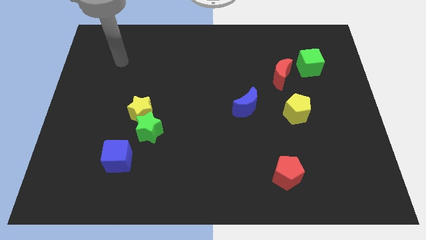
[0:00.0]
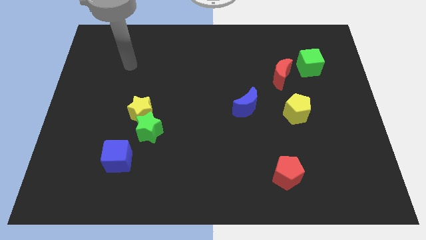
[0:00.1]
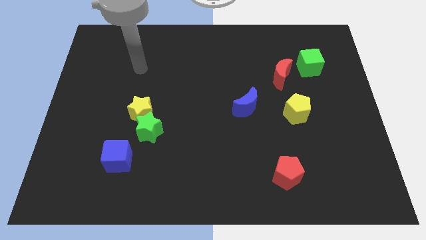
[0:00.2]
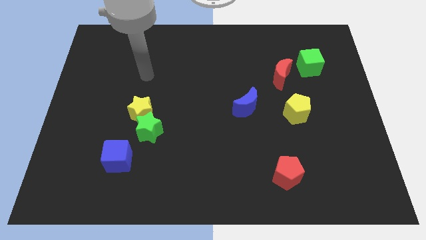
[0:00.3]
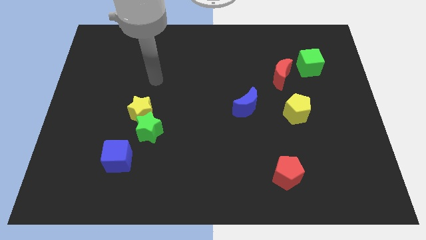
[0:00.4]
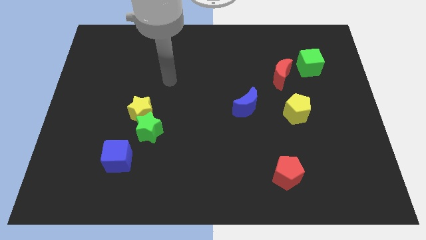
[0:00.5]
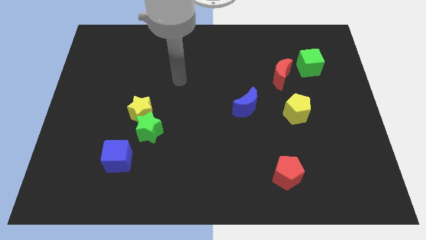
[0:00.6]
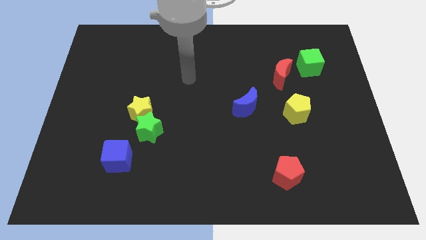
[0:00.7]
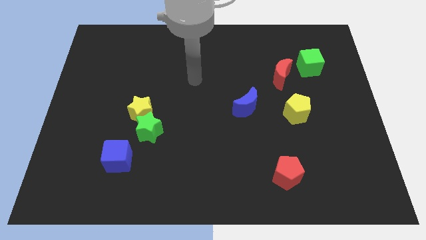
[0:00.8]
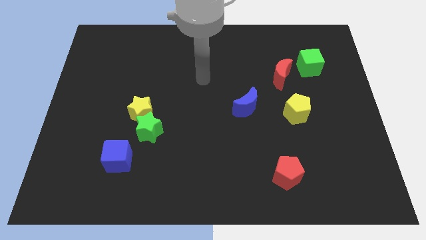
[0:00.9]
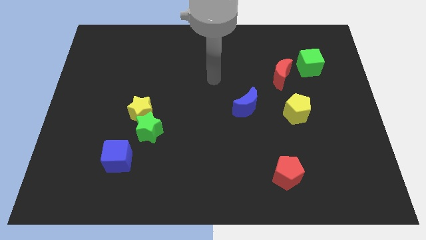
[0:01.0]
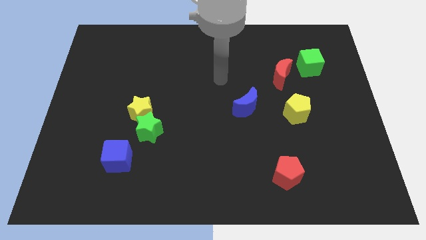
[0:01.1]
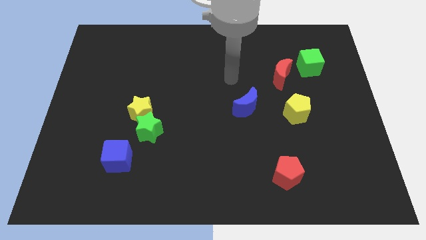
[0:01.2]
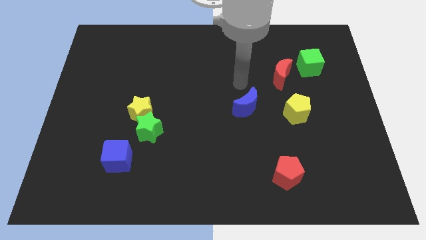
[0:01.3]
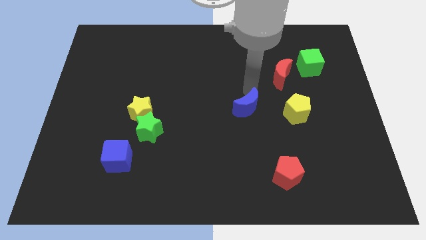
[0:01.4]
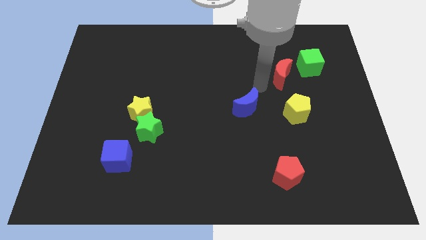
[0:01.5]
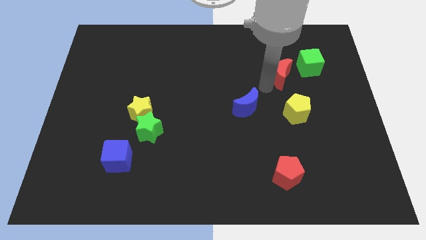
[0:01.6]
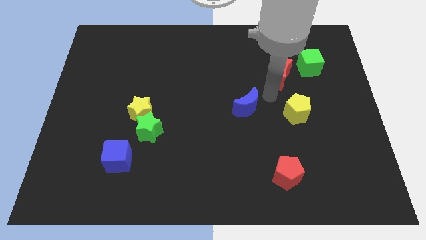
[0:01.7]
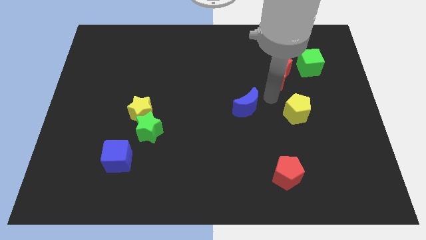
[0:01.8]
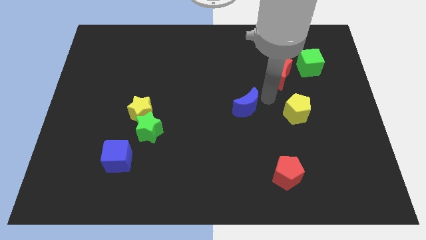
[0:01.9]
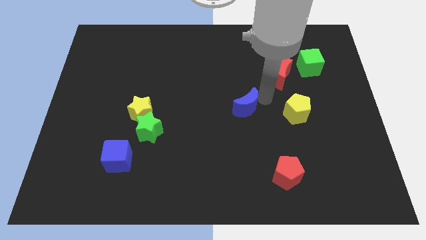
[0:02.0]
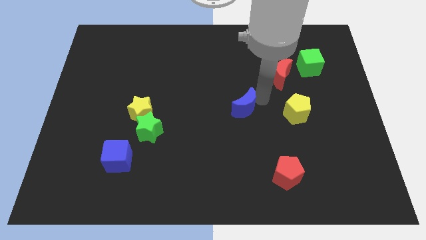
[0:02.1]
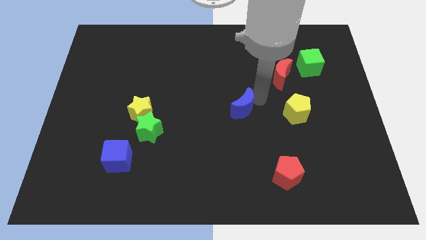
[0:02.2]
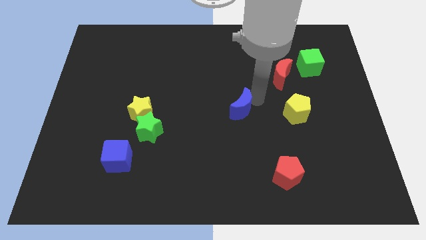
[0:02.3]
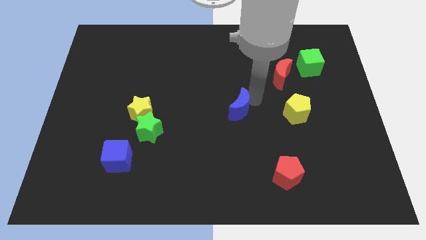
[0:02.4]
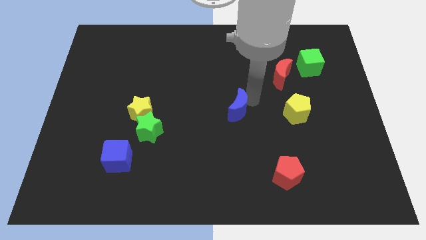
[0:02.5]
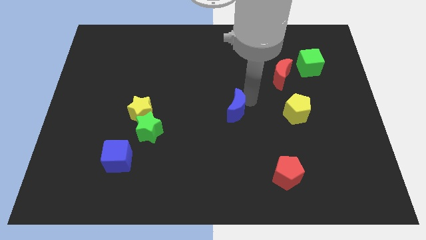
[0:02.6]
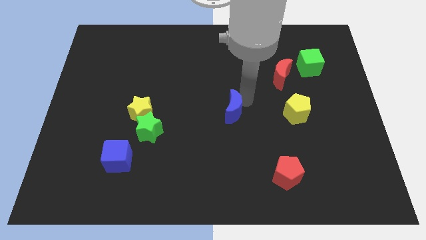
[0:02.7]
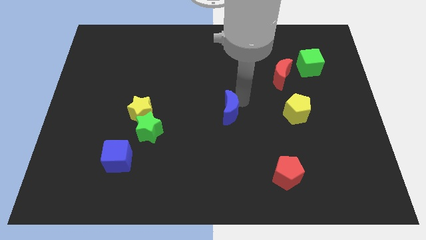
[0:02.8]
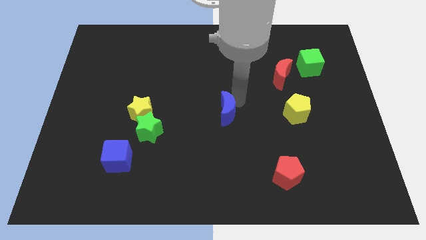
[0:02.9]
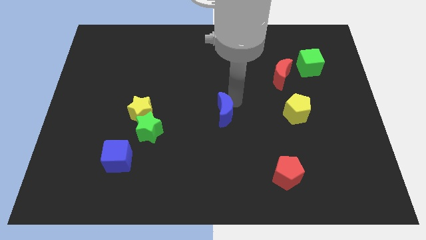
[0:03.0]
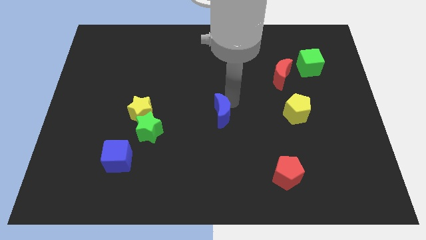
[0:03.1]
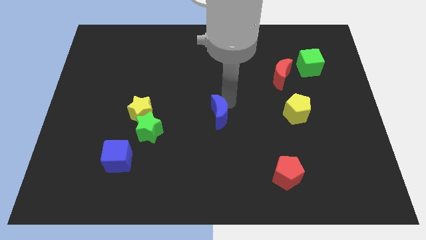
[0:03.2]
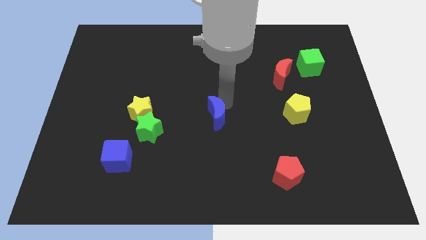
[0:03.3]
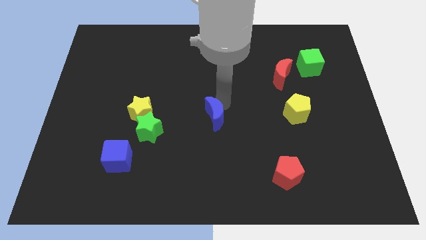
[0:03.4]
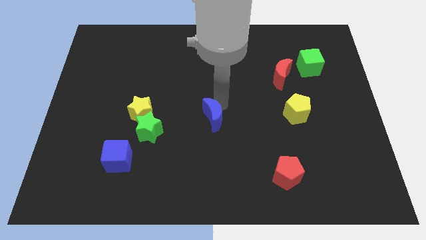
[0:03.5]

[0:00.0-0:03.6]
slightly move the blue moon down and then to the left

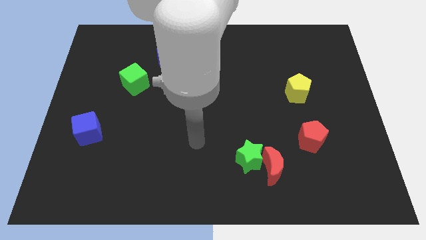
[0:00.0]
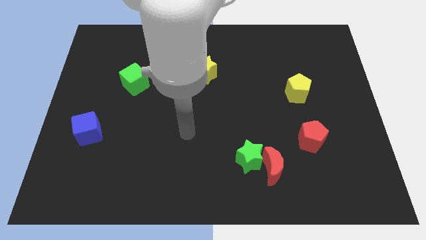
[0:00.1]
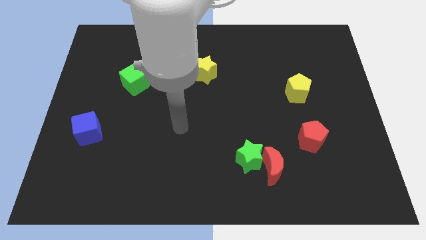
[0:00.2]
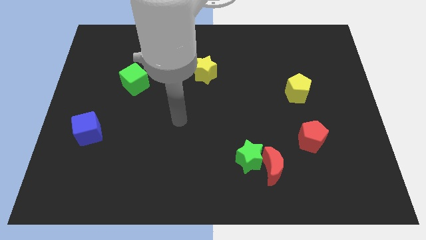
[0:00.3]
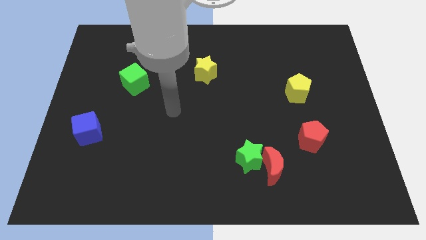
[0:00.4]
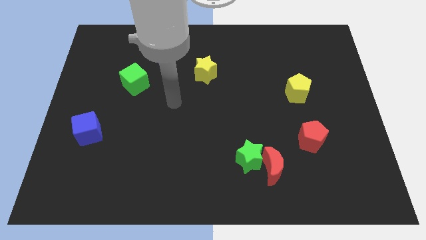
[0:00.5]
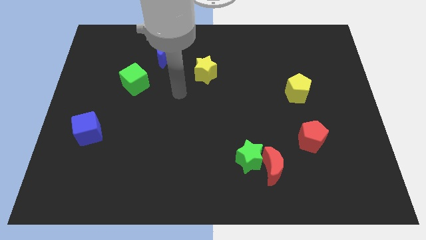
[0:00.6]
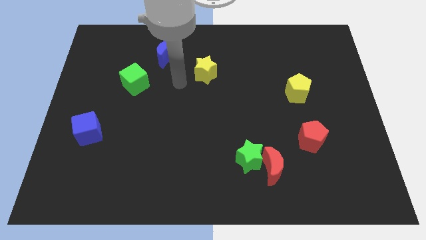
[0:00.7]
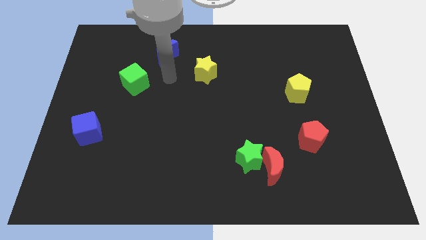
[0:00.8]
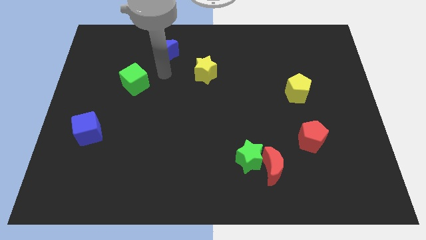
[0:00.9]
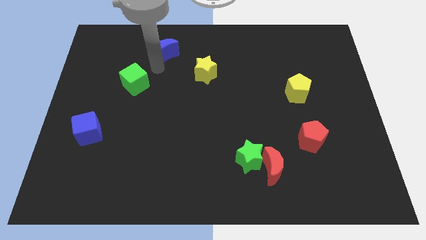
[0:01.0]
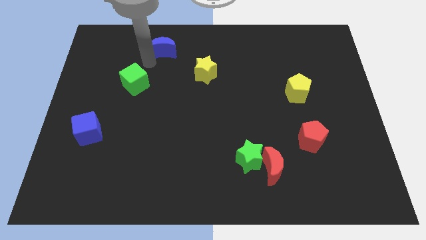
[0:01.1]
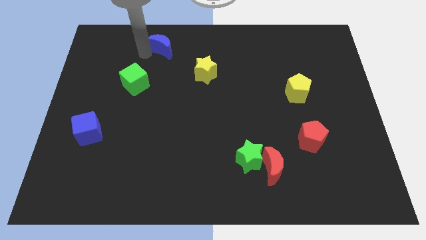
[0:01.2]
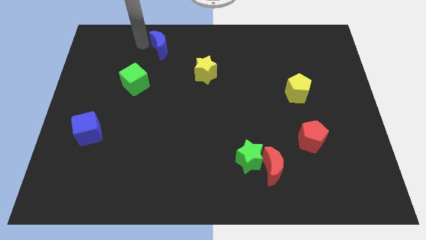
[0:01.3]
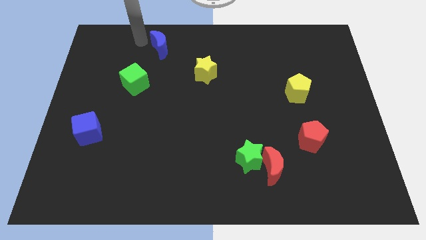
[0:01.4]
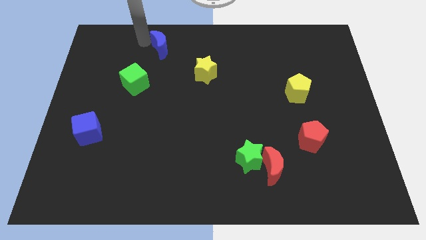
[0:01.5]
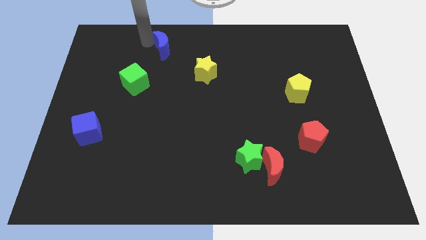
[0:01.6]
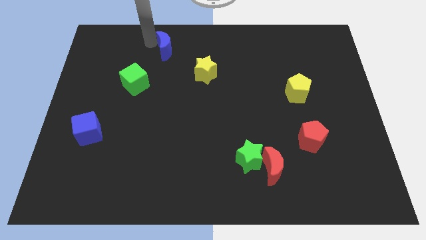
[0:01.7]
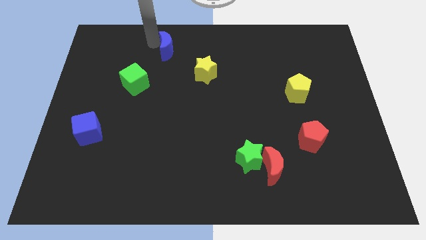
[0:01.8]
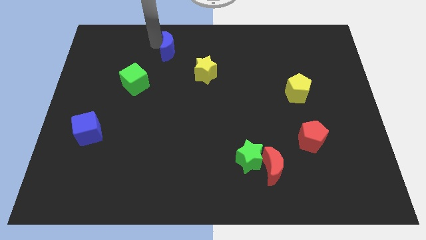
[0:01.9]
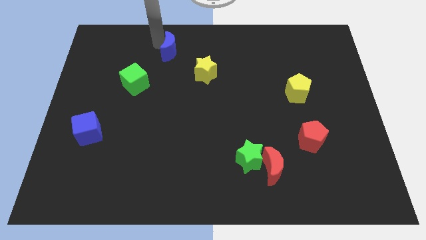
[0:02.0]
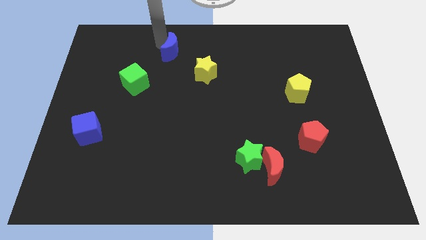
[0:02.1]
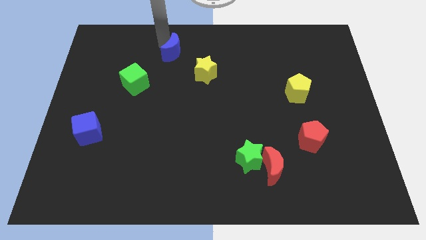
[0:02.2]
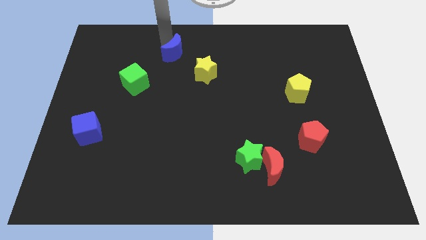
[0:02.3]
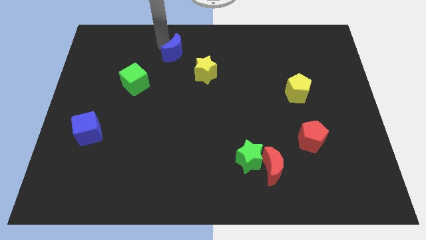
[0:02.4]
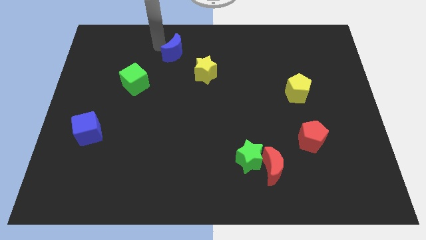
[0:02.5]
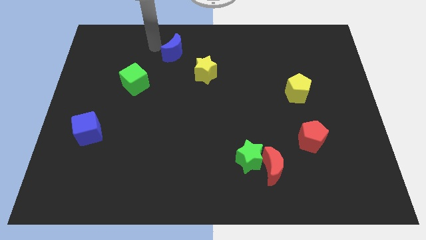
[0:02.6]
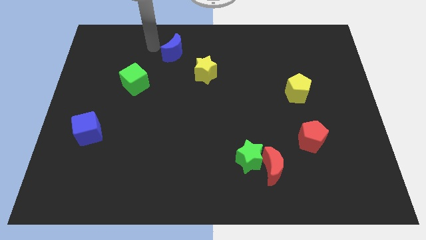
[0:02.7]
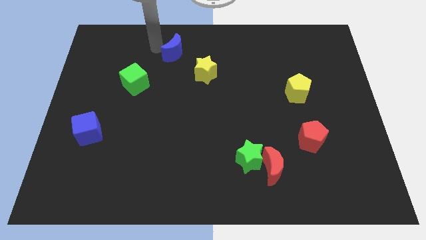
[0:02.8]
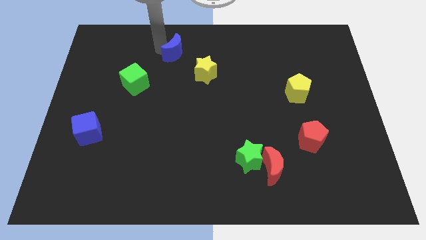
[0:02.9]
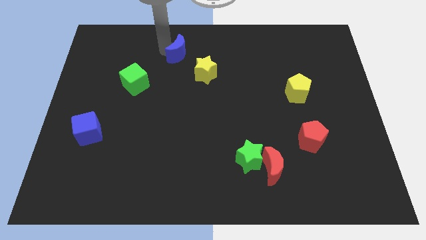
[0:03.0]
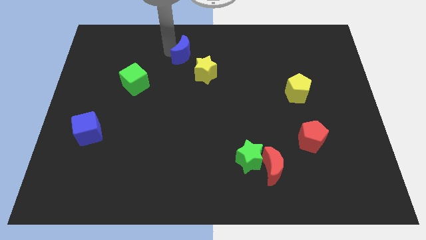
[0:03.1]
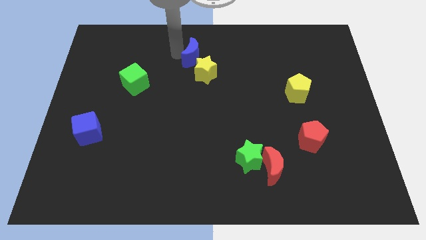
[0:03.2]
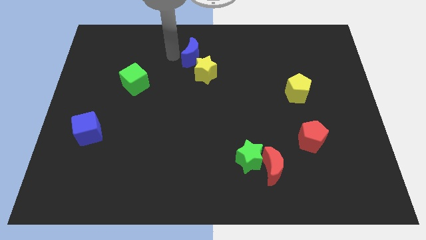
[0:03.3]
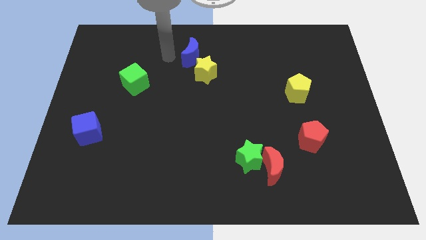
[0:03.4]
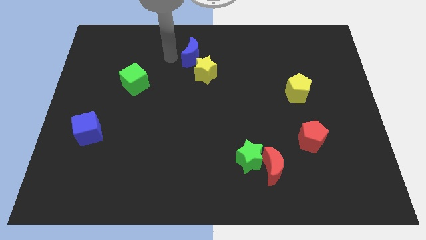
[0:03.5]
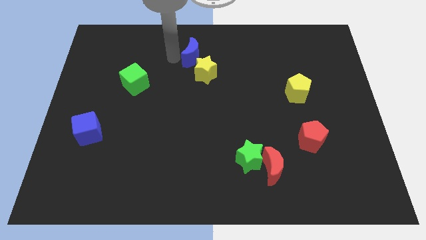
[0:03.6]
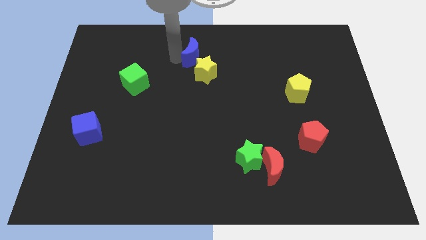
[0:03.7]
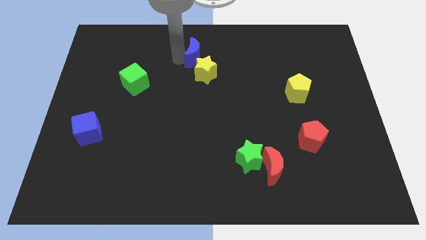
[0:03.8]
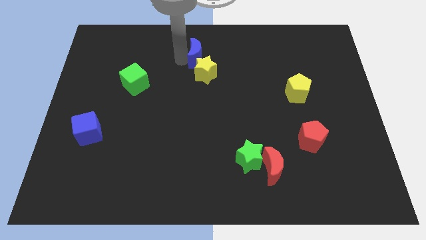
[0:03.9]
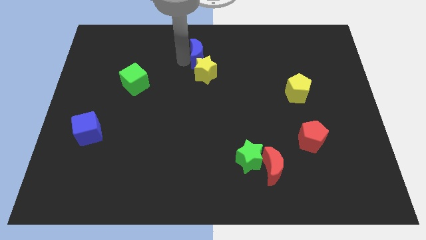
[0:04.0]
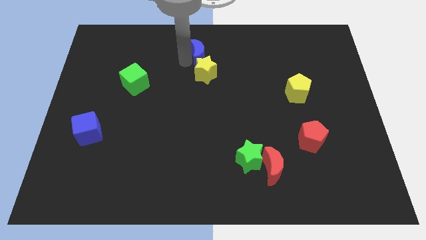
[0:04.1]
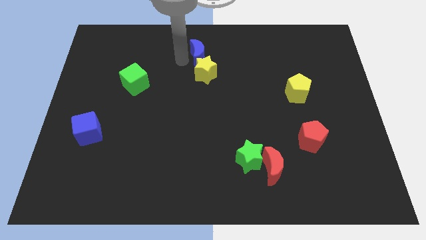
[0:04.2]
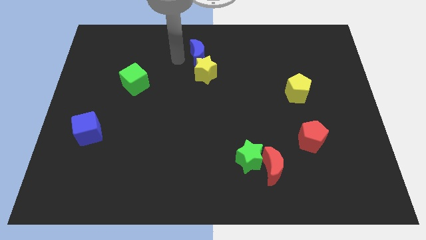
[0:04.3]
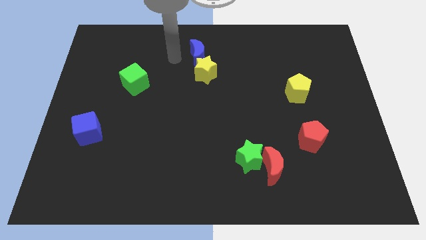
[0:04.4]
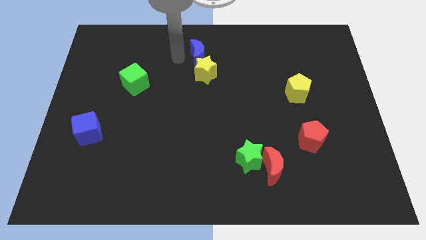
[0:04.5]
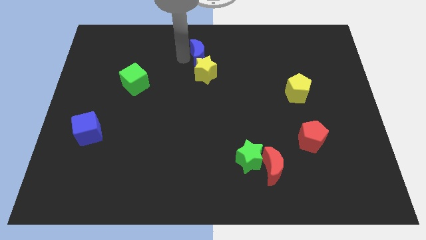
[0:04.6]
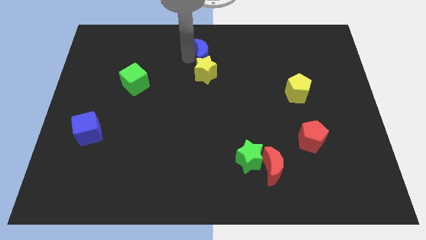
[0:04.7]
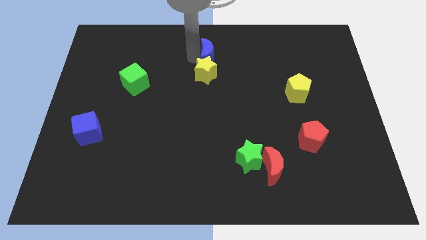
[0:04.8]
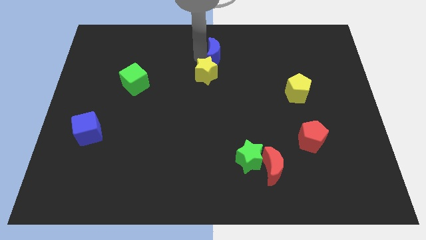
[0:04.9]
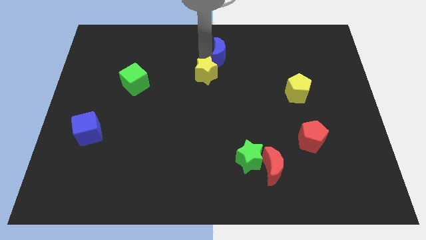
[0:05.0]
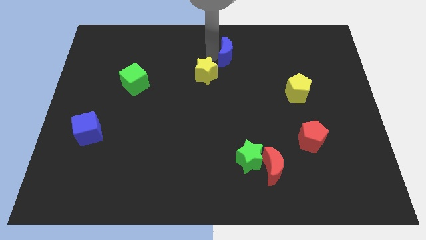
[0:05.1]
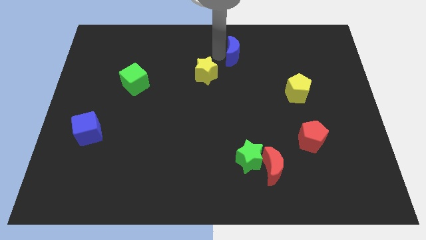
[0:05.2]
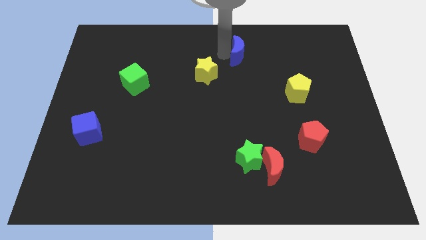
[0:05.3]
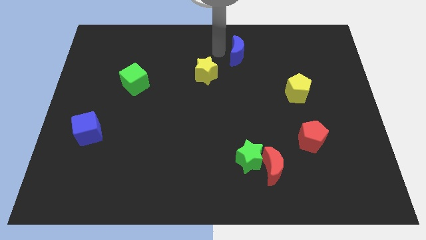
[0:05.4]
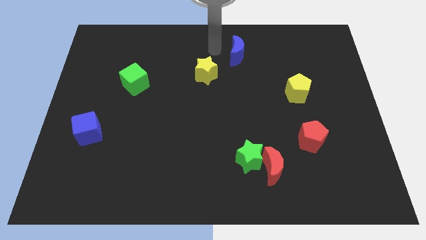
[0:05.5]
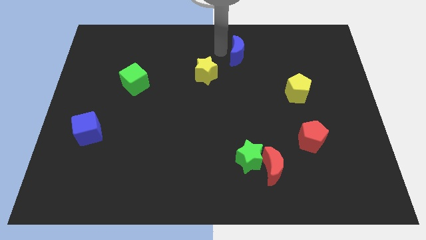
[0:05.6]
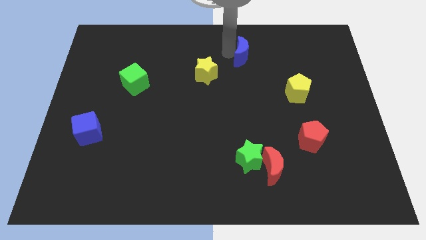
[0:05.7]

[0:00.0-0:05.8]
move the blue moon right
